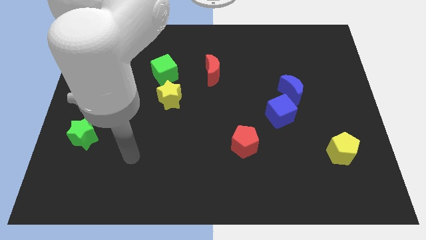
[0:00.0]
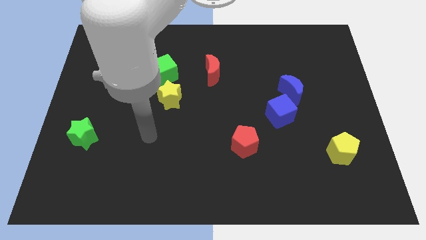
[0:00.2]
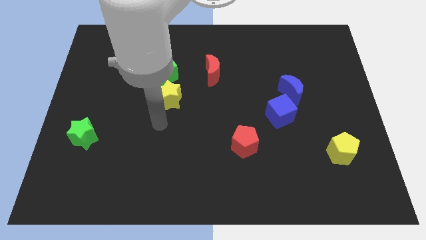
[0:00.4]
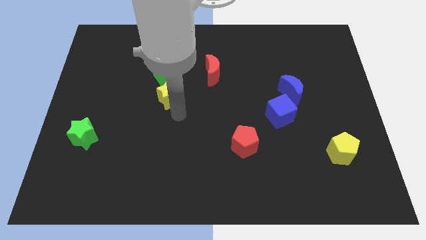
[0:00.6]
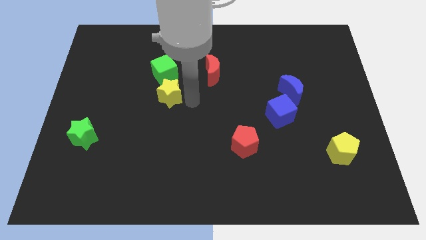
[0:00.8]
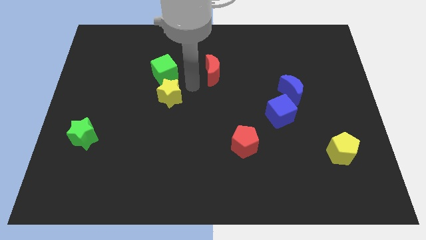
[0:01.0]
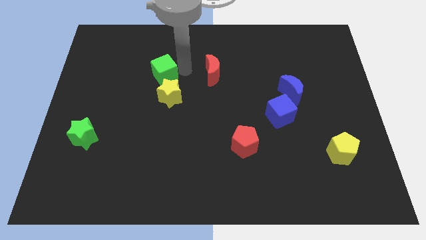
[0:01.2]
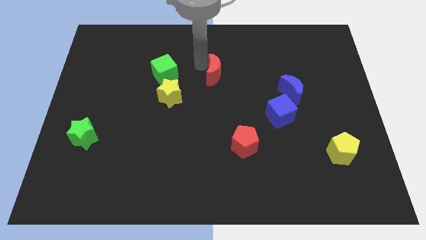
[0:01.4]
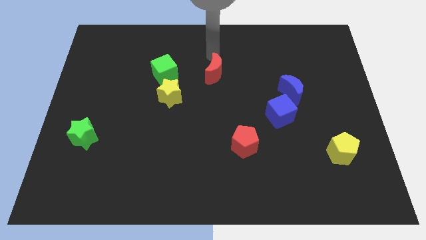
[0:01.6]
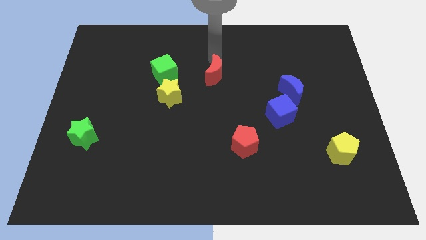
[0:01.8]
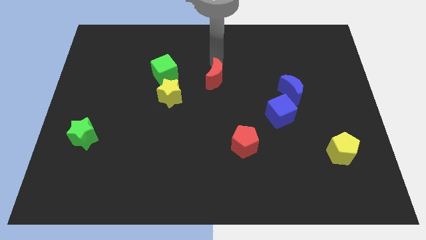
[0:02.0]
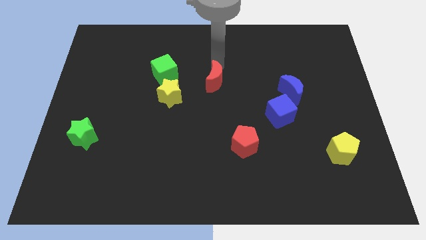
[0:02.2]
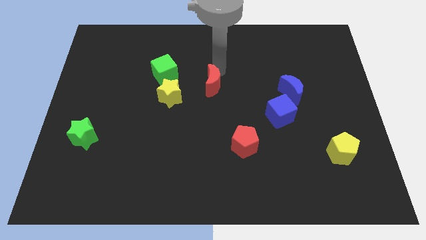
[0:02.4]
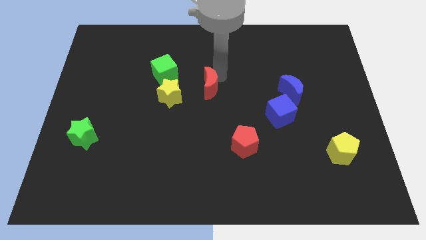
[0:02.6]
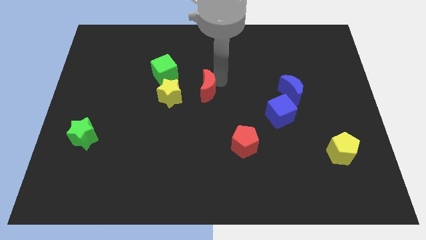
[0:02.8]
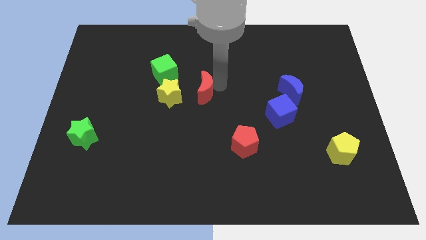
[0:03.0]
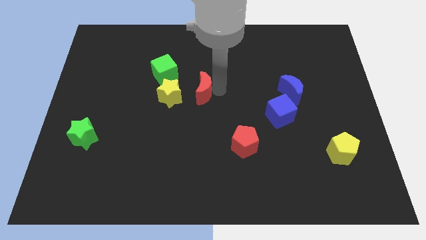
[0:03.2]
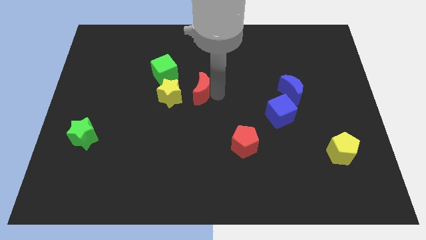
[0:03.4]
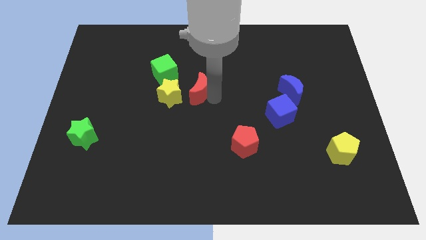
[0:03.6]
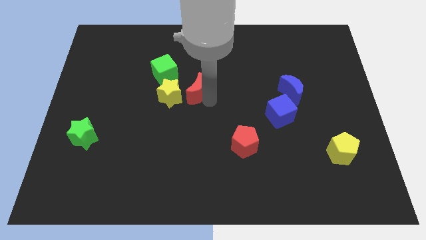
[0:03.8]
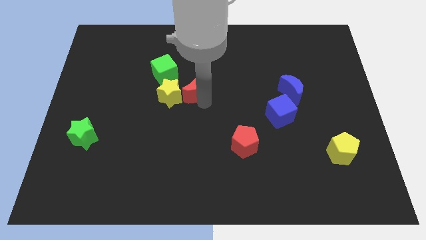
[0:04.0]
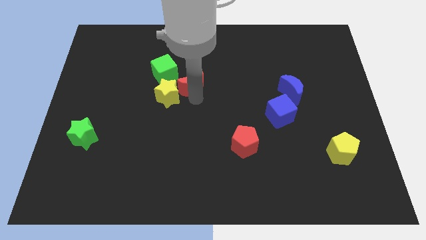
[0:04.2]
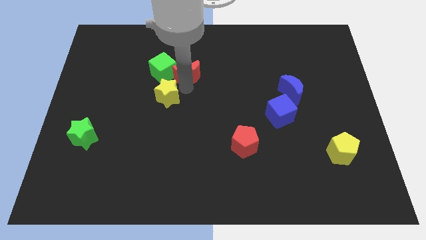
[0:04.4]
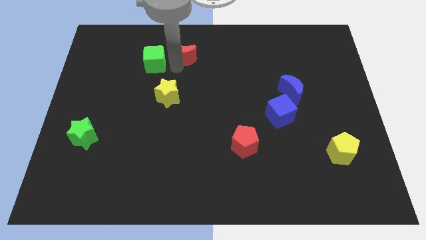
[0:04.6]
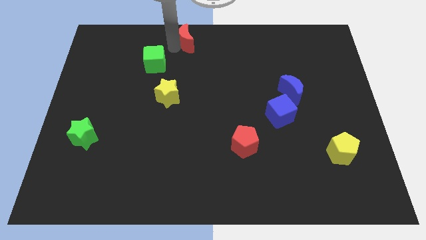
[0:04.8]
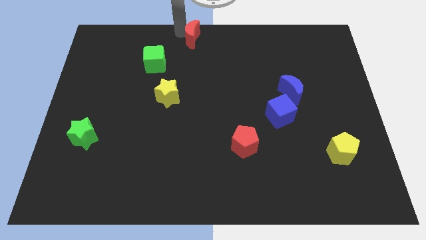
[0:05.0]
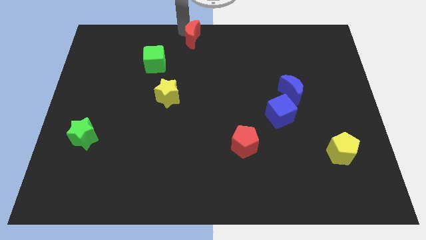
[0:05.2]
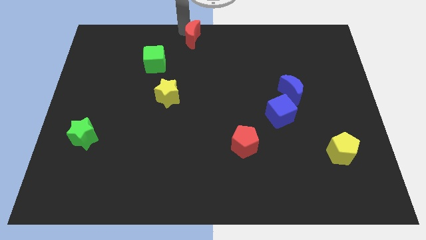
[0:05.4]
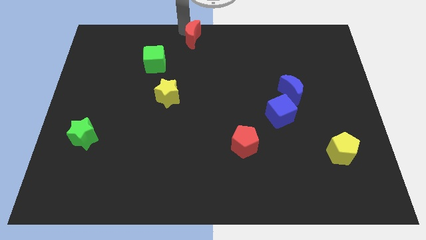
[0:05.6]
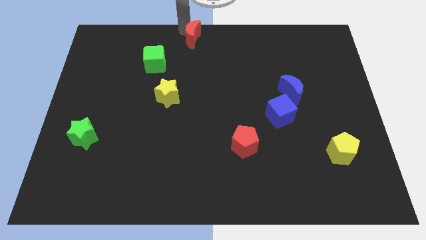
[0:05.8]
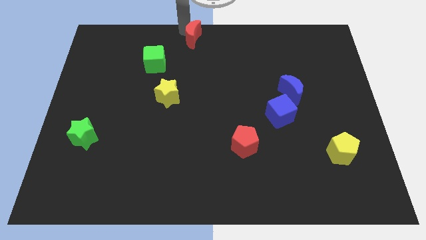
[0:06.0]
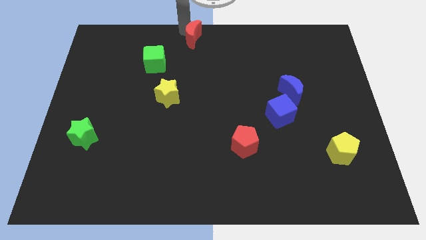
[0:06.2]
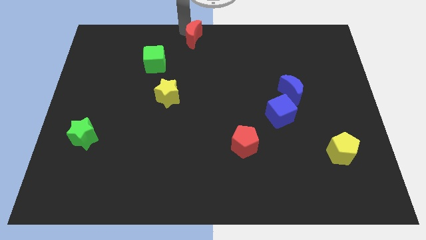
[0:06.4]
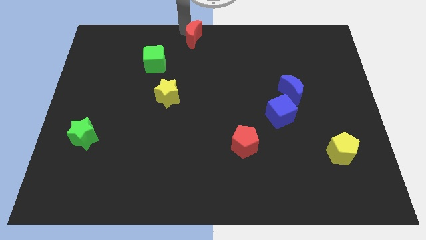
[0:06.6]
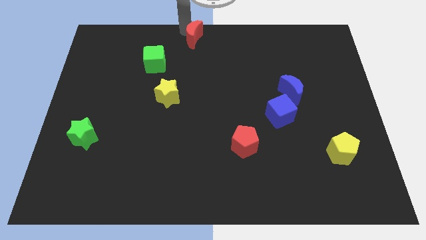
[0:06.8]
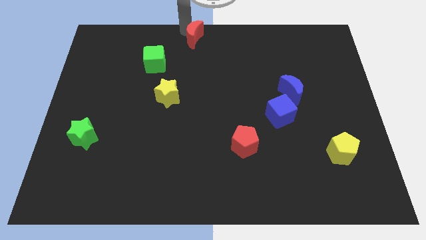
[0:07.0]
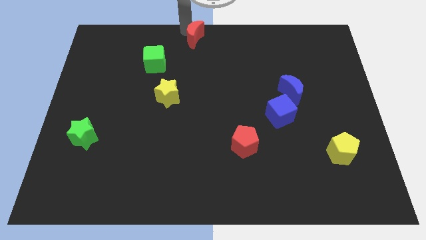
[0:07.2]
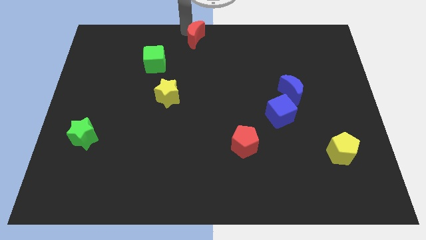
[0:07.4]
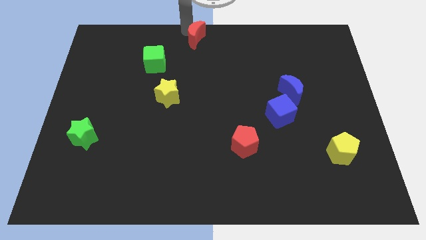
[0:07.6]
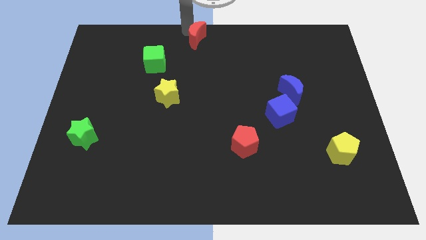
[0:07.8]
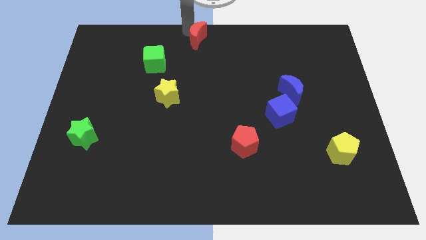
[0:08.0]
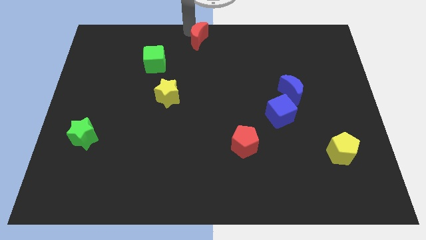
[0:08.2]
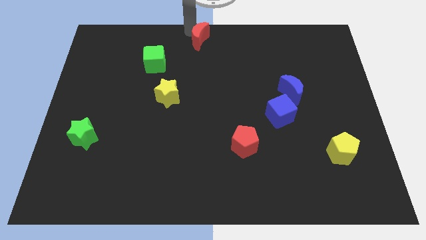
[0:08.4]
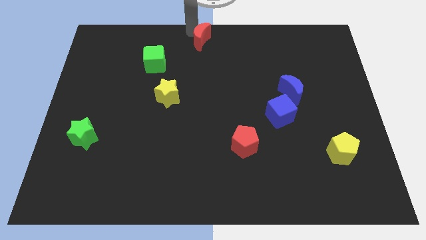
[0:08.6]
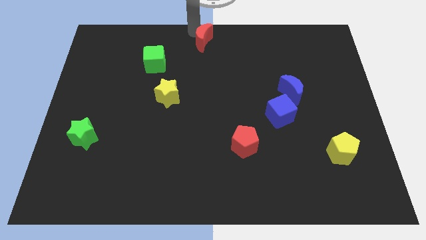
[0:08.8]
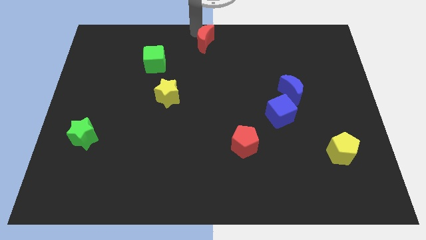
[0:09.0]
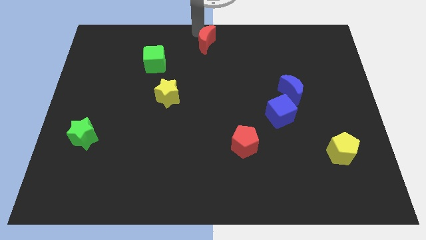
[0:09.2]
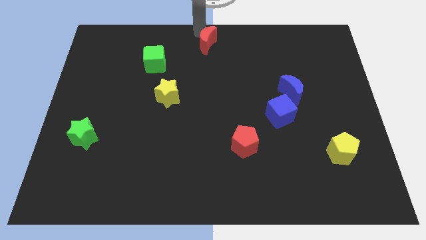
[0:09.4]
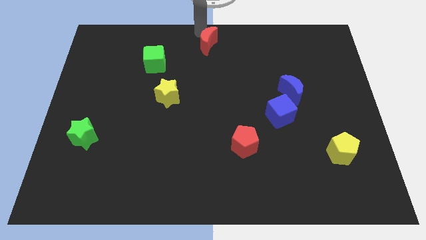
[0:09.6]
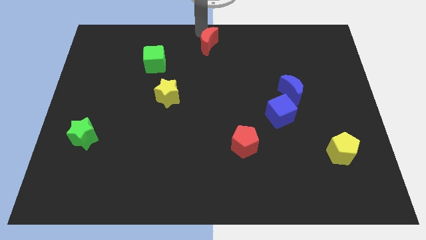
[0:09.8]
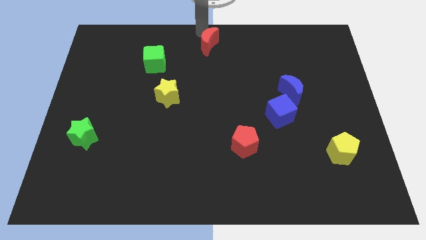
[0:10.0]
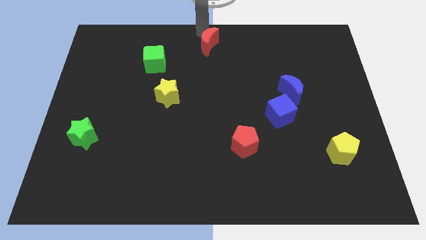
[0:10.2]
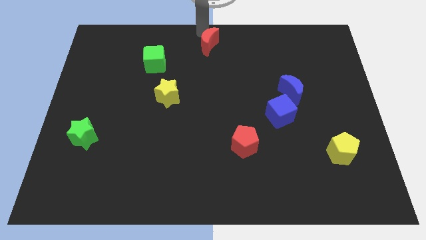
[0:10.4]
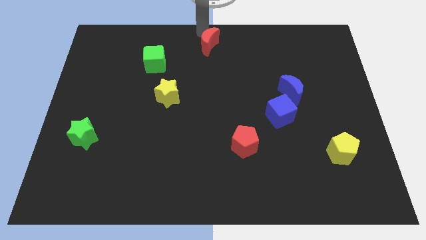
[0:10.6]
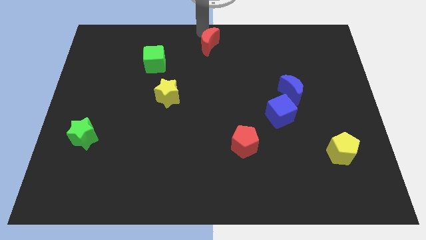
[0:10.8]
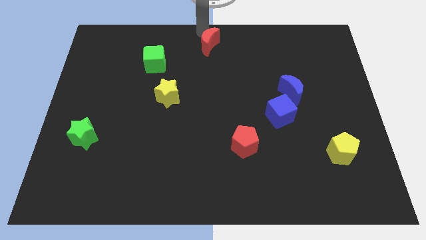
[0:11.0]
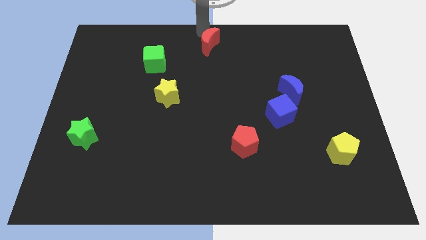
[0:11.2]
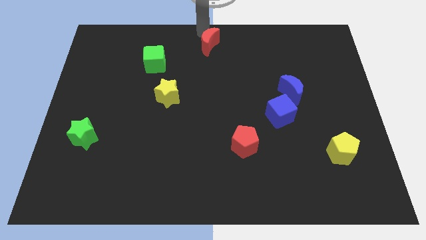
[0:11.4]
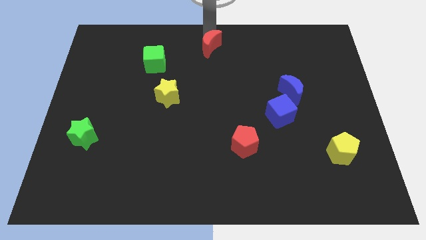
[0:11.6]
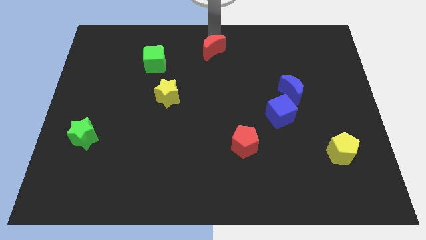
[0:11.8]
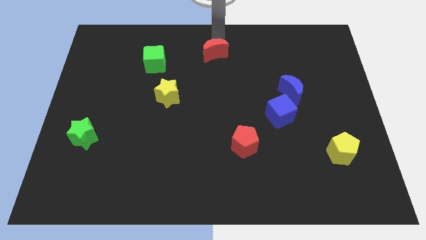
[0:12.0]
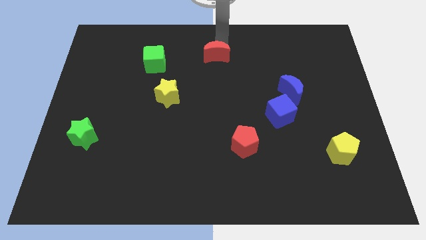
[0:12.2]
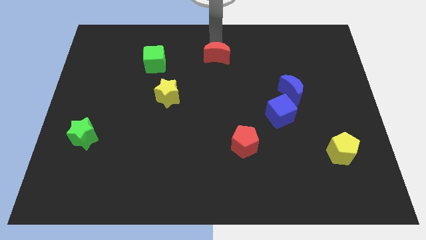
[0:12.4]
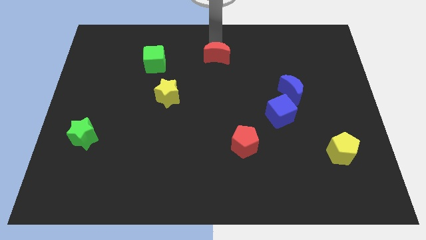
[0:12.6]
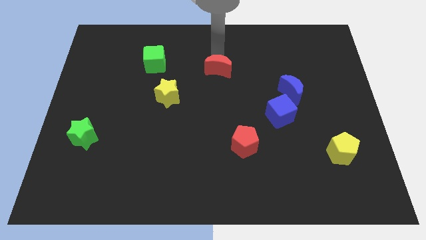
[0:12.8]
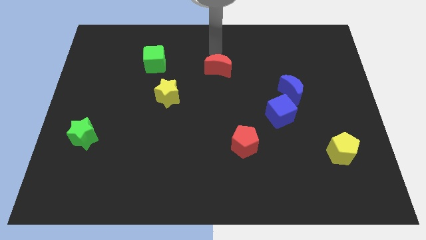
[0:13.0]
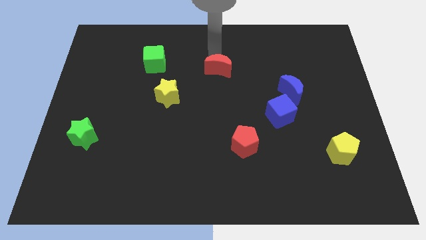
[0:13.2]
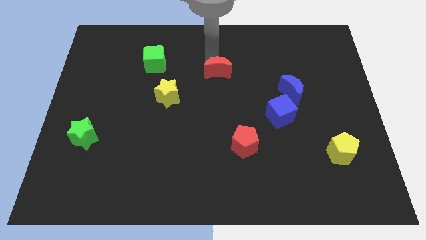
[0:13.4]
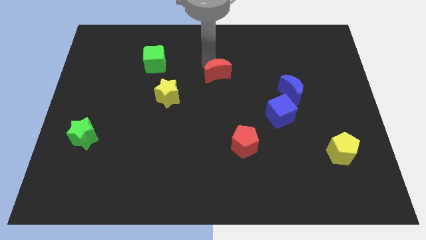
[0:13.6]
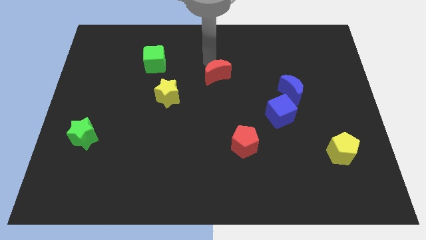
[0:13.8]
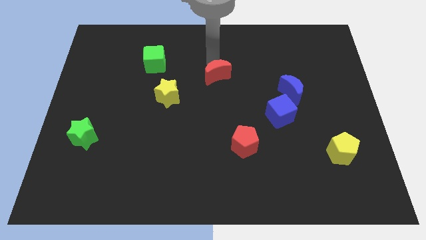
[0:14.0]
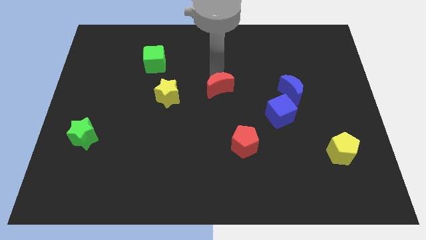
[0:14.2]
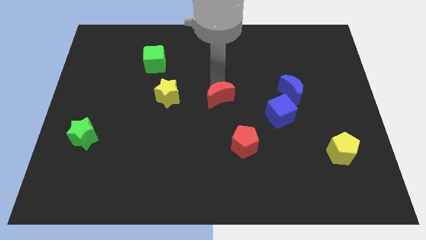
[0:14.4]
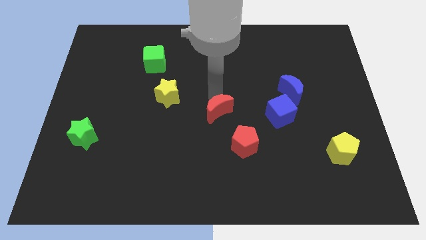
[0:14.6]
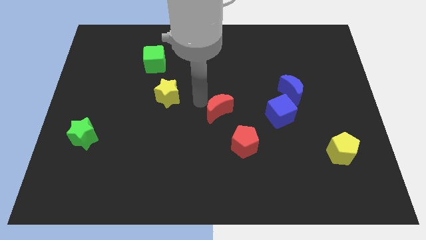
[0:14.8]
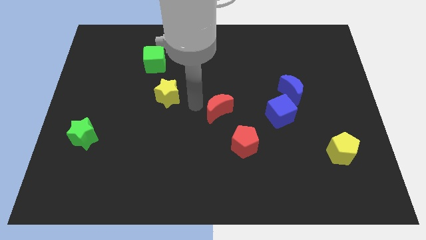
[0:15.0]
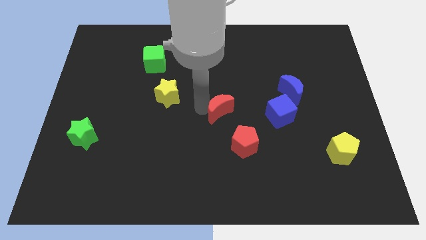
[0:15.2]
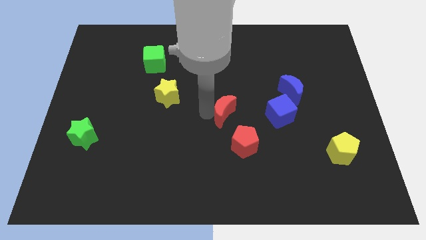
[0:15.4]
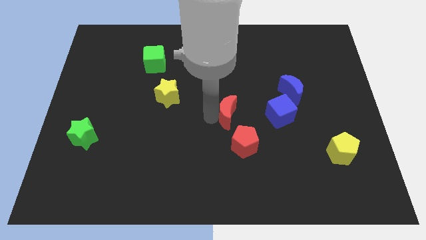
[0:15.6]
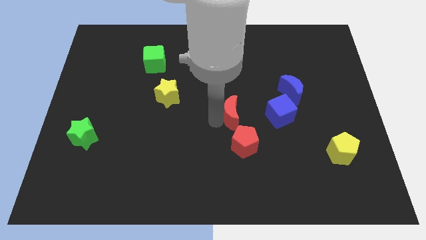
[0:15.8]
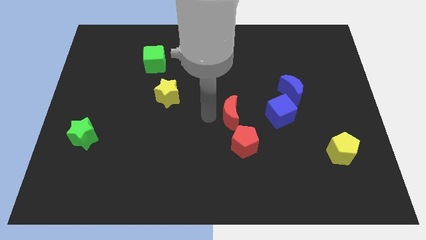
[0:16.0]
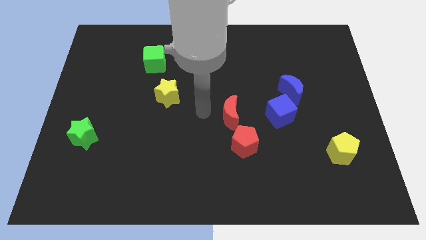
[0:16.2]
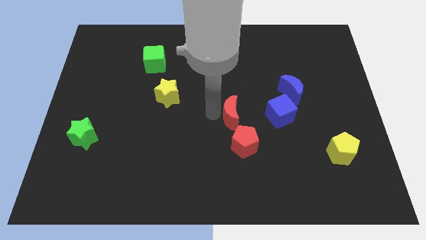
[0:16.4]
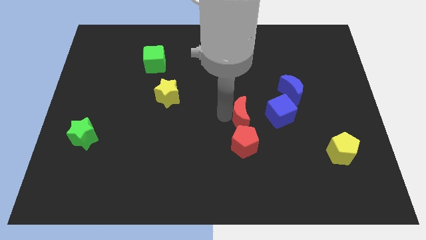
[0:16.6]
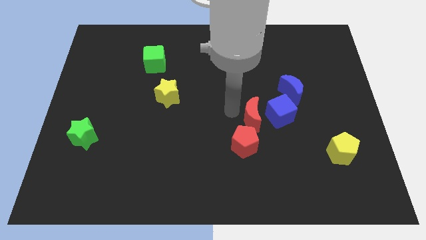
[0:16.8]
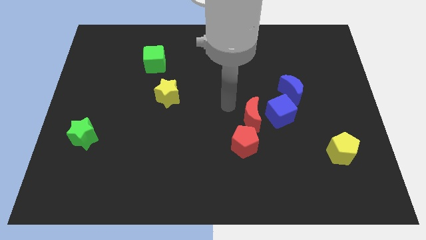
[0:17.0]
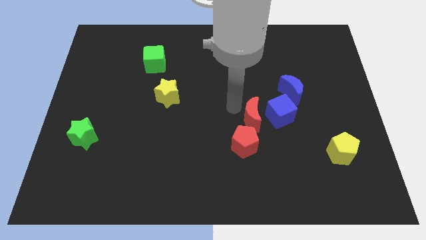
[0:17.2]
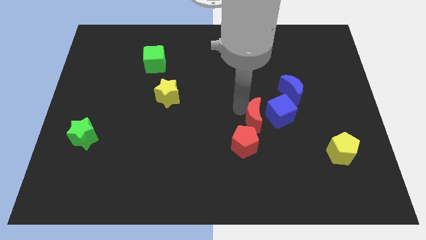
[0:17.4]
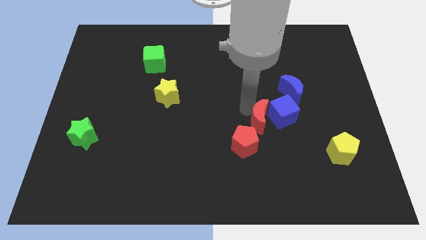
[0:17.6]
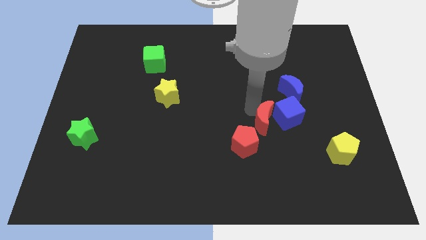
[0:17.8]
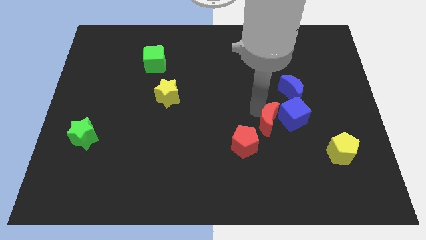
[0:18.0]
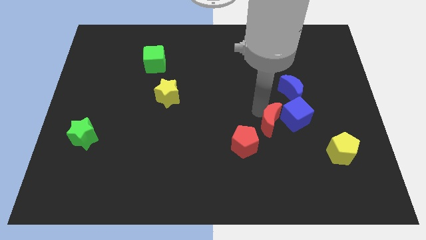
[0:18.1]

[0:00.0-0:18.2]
slide the red moon down and to the right diagonally
